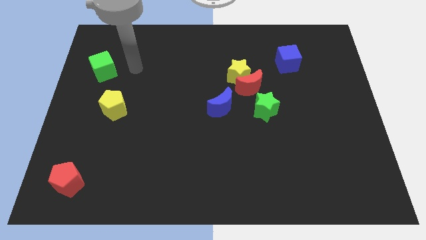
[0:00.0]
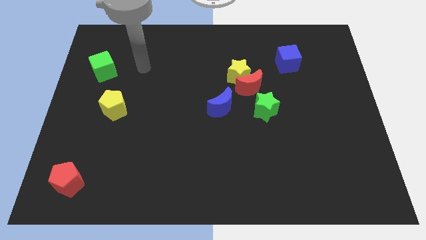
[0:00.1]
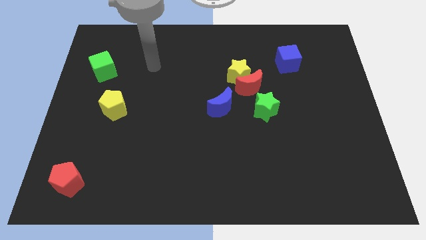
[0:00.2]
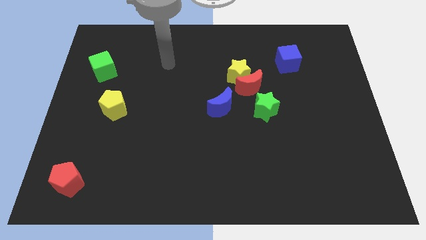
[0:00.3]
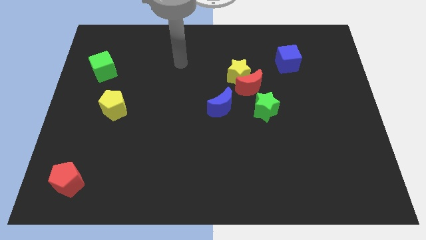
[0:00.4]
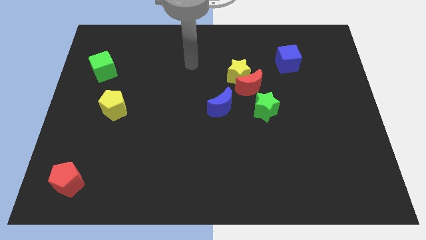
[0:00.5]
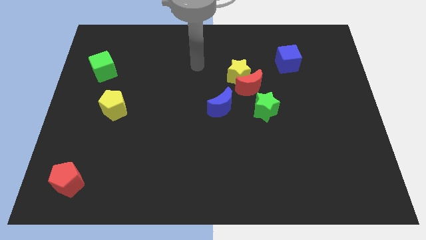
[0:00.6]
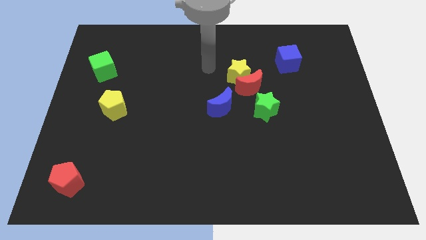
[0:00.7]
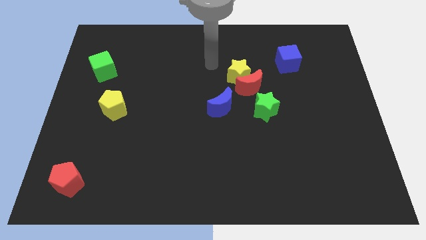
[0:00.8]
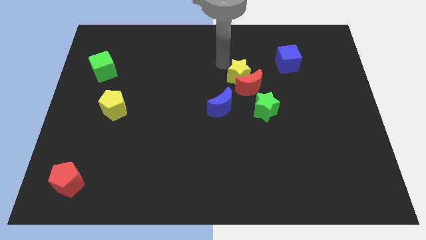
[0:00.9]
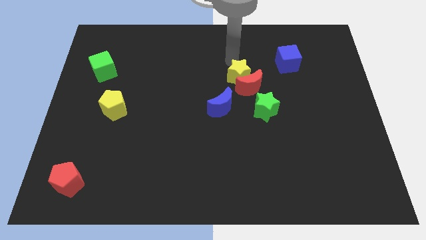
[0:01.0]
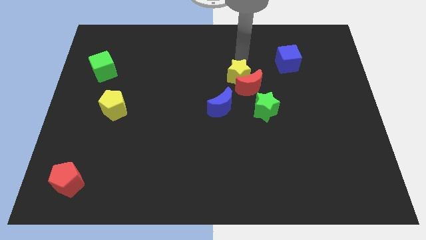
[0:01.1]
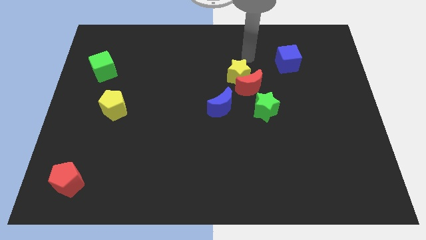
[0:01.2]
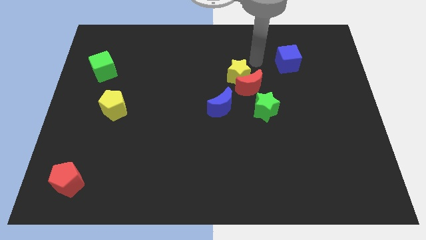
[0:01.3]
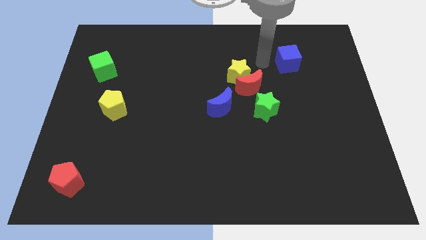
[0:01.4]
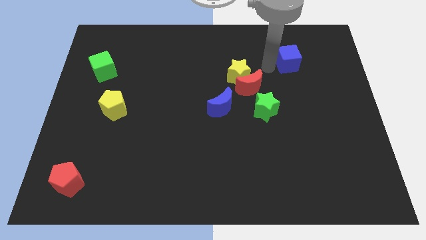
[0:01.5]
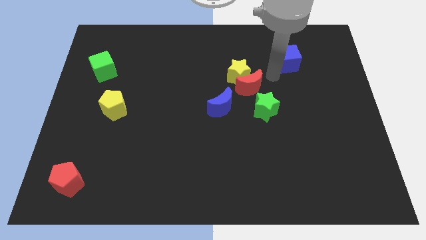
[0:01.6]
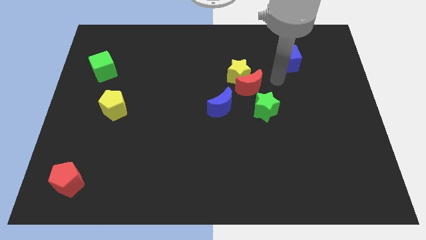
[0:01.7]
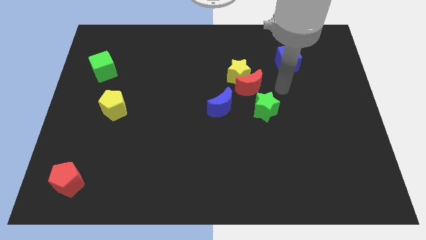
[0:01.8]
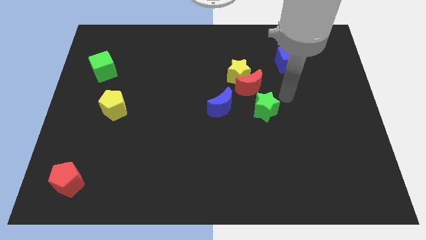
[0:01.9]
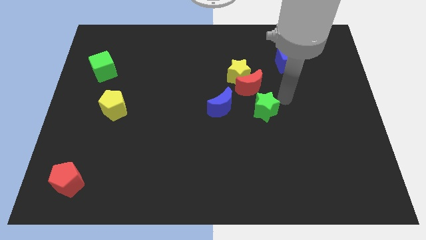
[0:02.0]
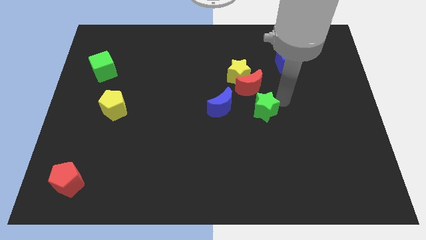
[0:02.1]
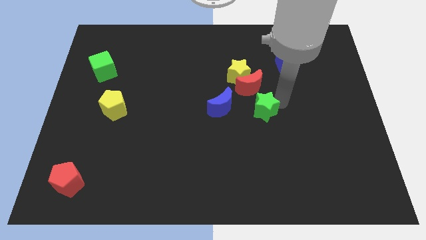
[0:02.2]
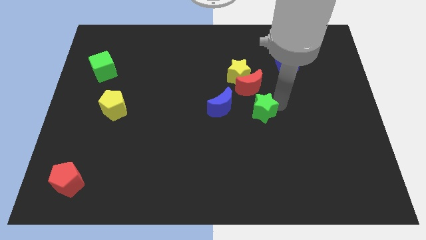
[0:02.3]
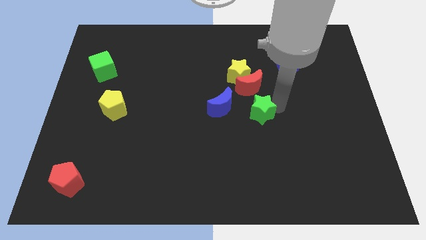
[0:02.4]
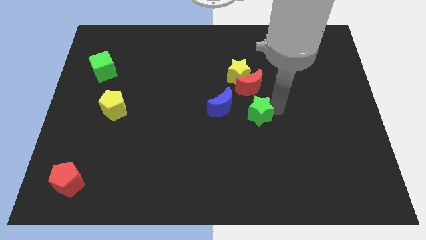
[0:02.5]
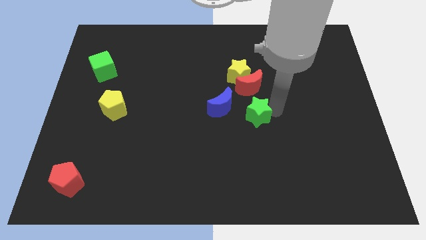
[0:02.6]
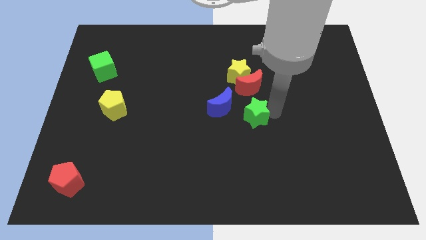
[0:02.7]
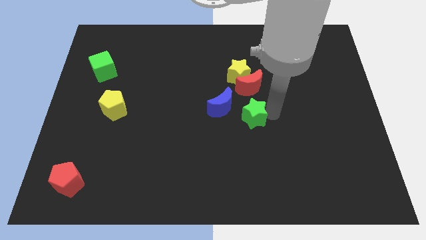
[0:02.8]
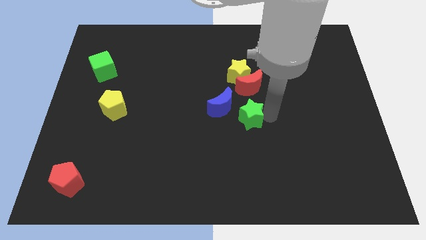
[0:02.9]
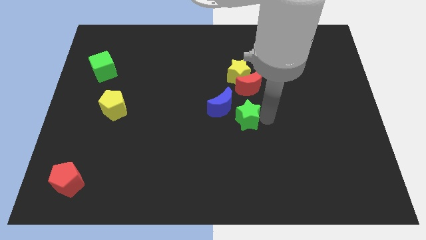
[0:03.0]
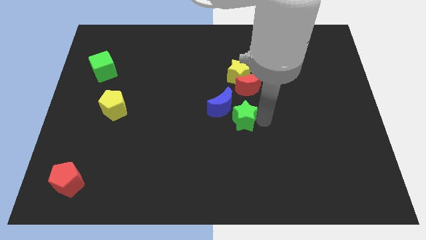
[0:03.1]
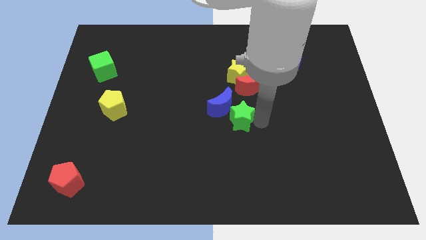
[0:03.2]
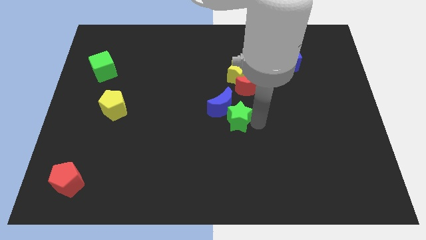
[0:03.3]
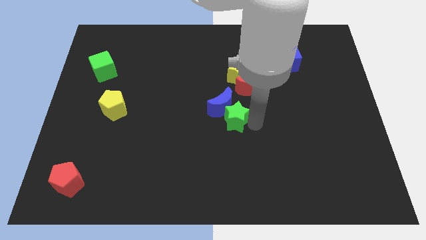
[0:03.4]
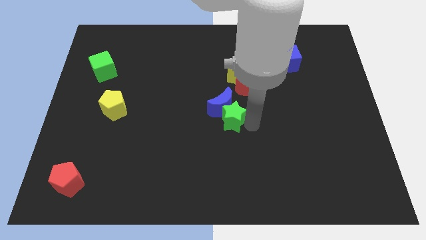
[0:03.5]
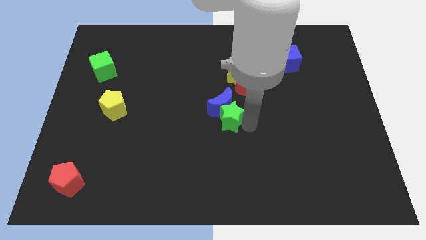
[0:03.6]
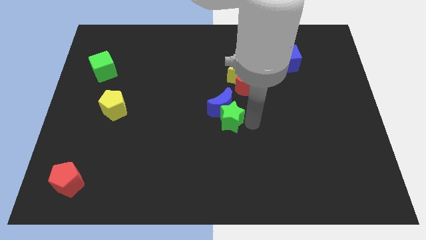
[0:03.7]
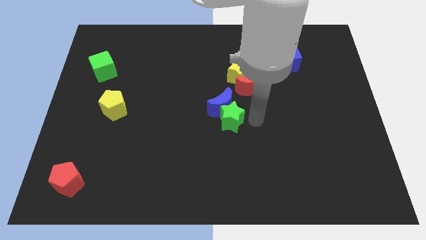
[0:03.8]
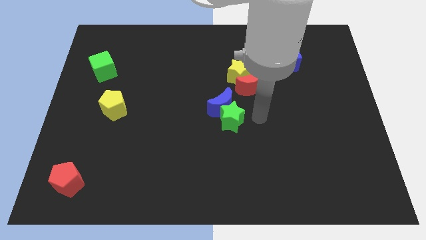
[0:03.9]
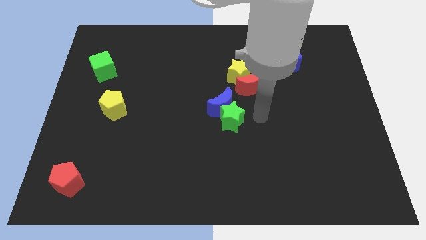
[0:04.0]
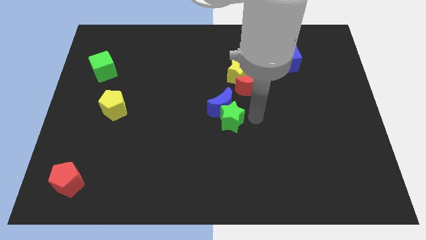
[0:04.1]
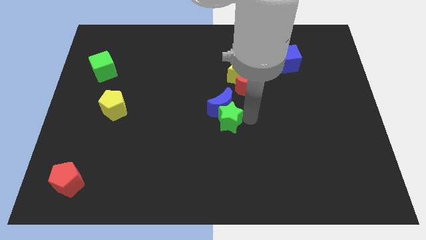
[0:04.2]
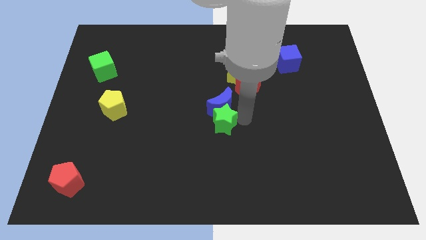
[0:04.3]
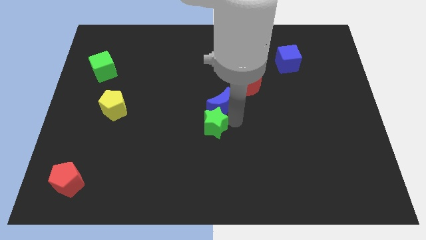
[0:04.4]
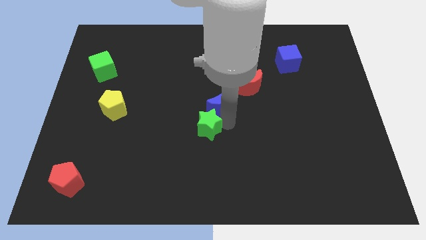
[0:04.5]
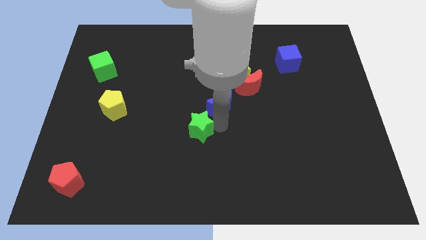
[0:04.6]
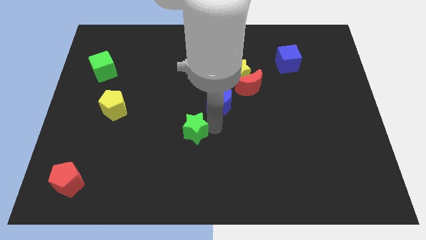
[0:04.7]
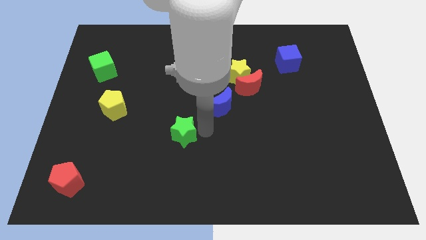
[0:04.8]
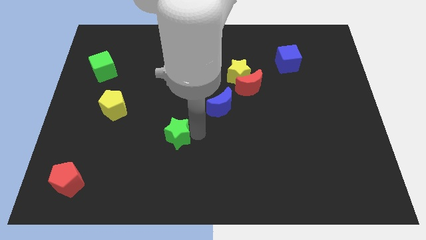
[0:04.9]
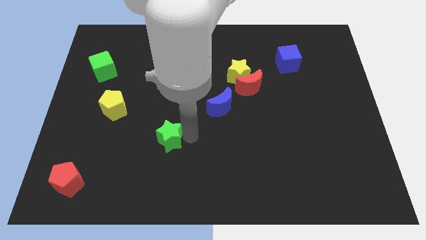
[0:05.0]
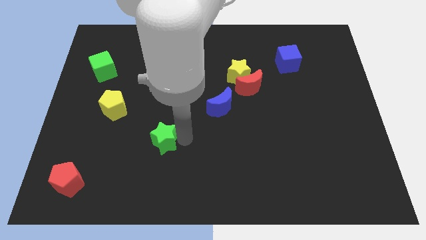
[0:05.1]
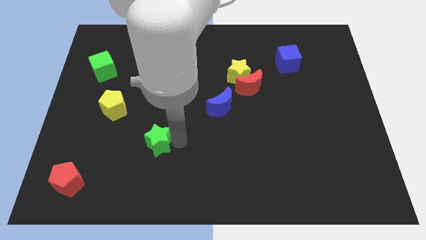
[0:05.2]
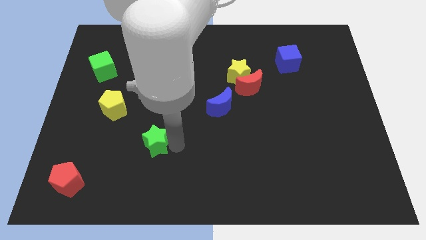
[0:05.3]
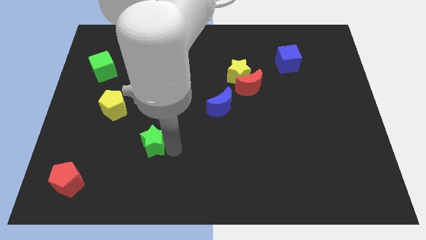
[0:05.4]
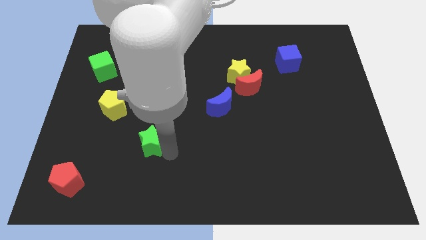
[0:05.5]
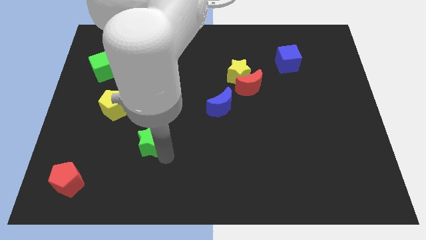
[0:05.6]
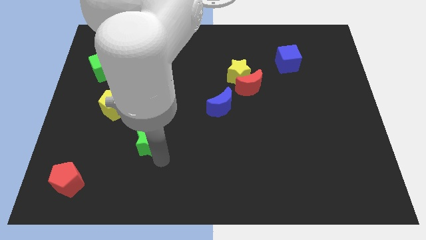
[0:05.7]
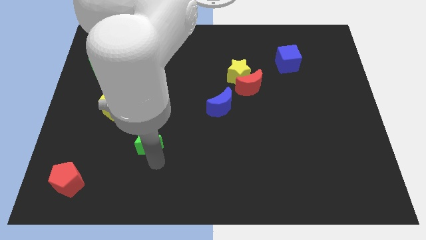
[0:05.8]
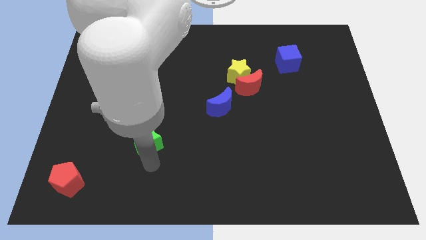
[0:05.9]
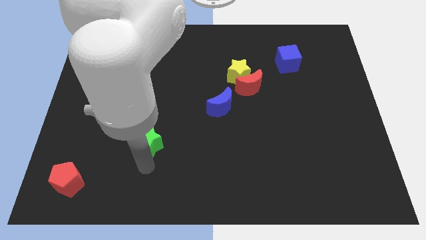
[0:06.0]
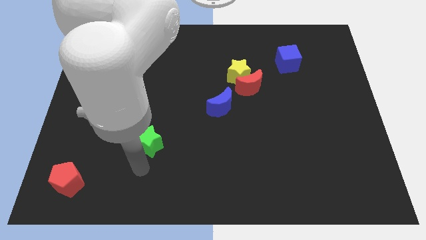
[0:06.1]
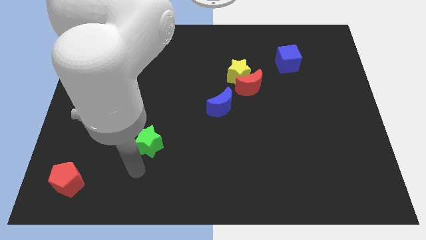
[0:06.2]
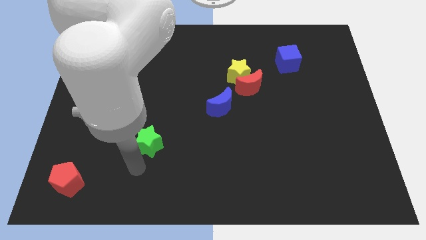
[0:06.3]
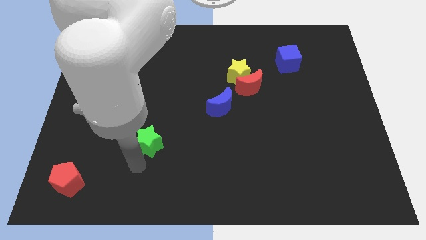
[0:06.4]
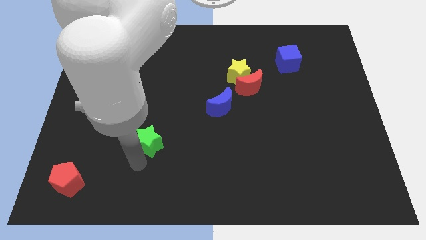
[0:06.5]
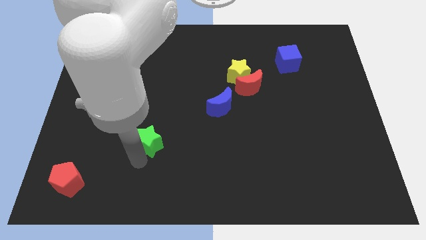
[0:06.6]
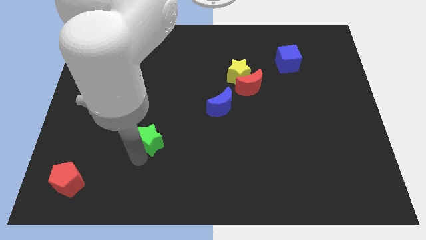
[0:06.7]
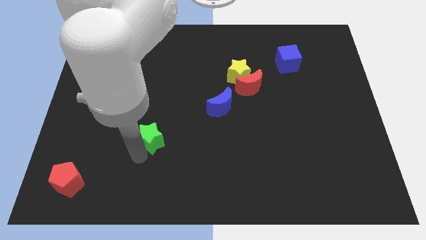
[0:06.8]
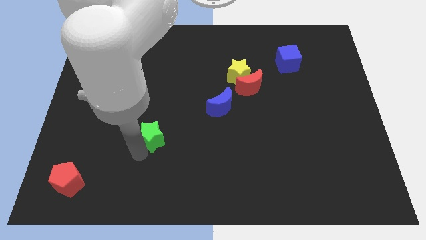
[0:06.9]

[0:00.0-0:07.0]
slide the green star to the bottom right of the yellow pentagon
